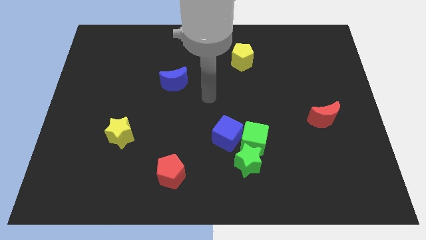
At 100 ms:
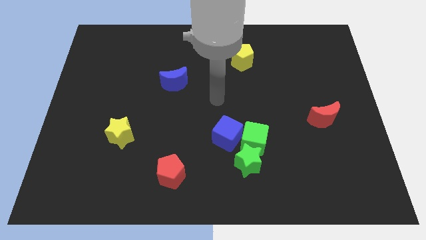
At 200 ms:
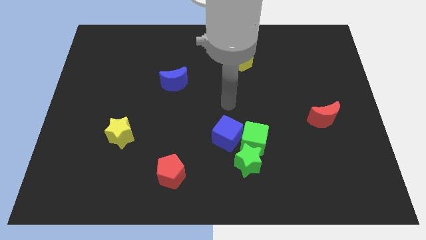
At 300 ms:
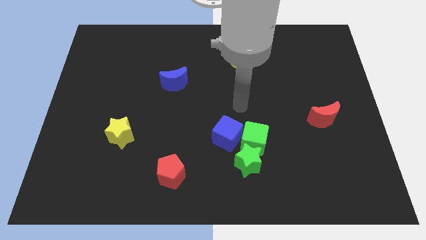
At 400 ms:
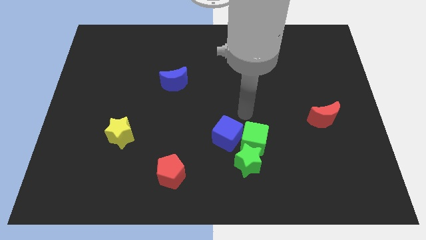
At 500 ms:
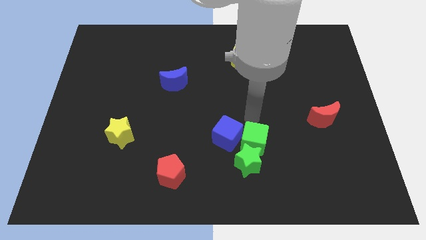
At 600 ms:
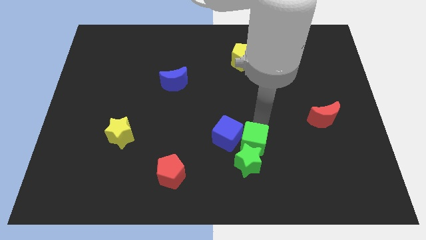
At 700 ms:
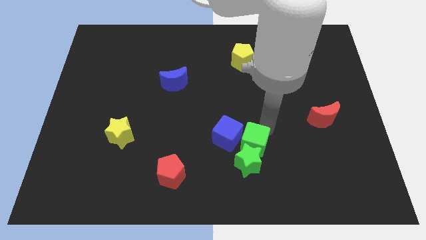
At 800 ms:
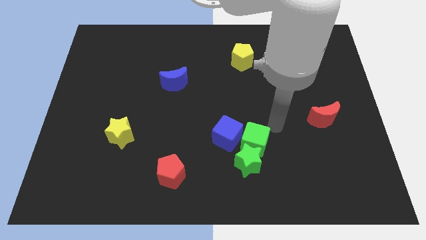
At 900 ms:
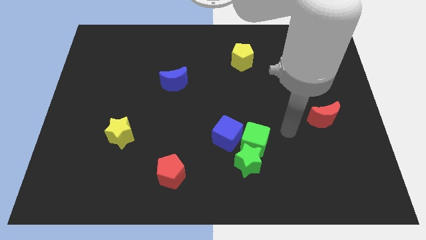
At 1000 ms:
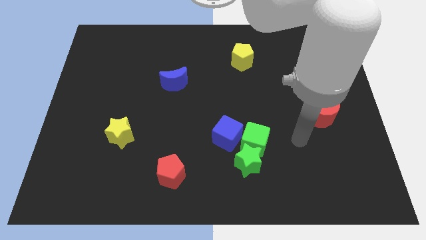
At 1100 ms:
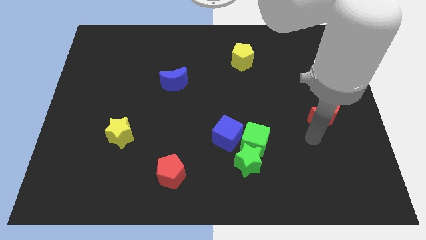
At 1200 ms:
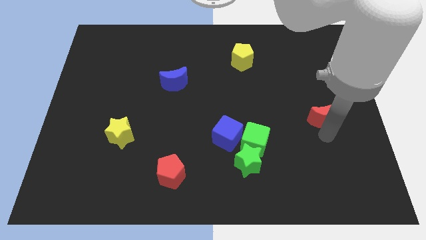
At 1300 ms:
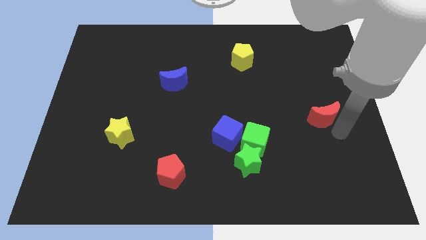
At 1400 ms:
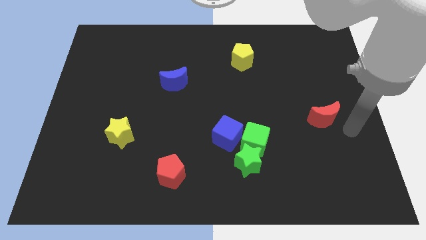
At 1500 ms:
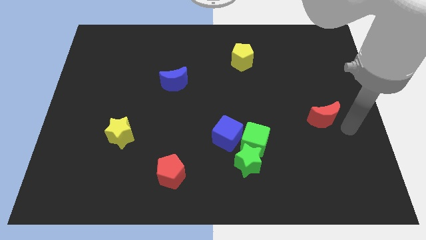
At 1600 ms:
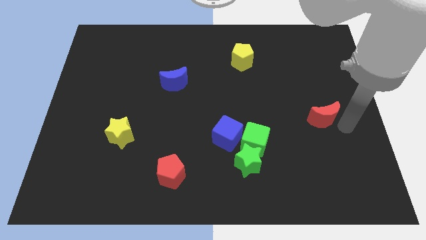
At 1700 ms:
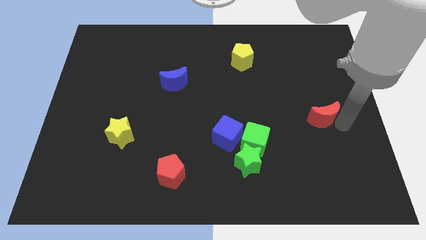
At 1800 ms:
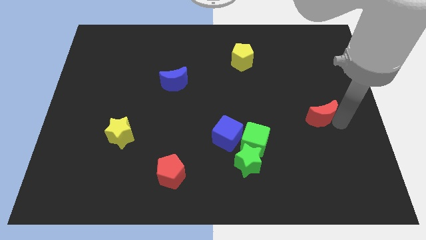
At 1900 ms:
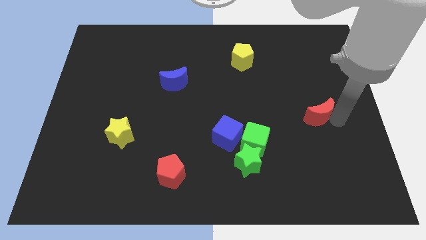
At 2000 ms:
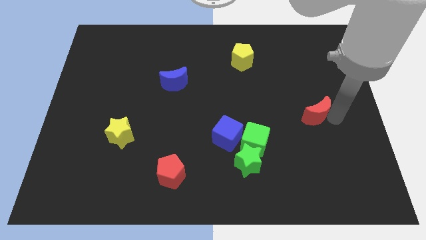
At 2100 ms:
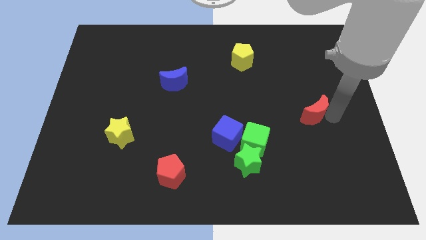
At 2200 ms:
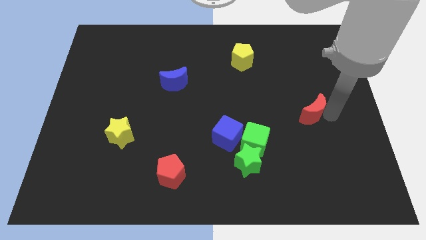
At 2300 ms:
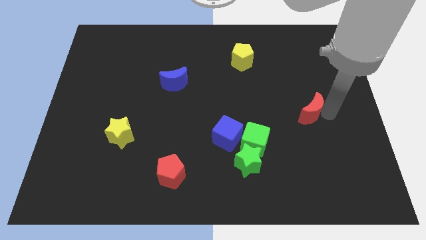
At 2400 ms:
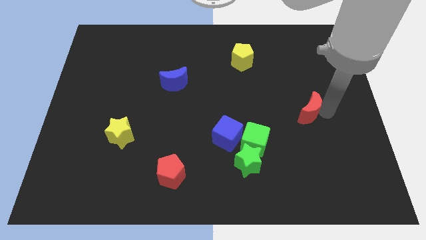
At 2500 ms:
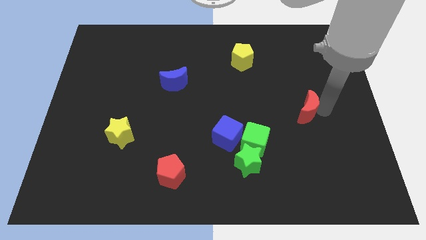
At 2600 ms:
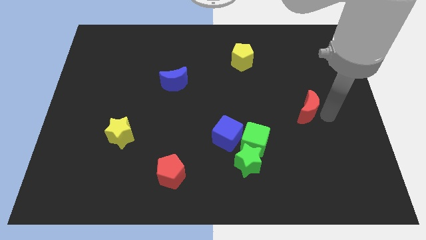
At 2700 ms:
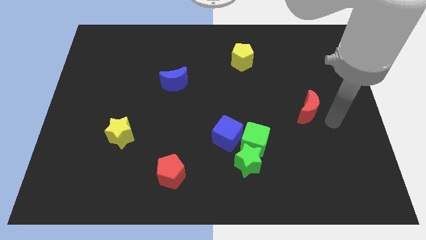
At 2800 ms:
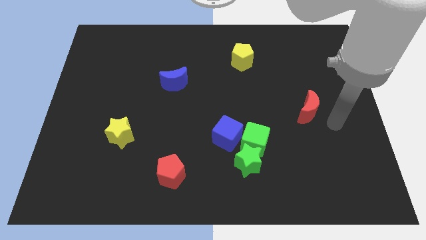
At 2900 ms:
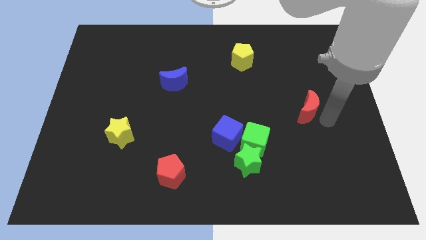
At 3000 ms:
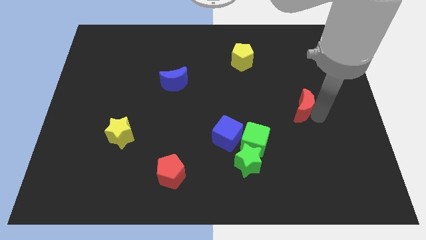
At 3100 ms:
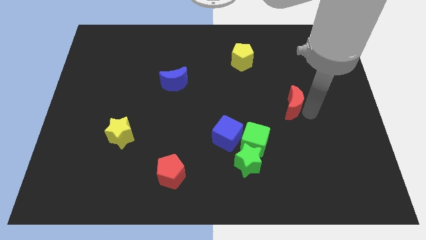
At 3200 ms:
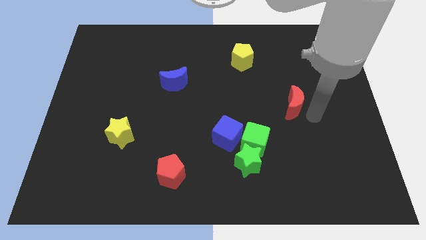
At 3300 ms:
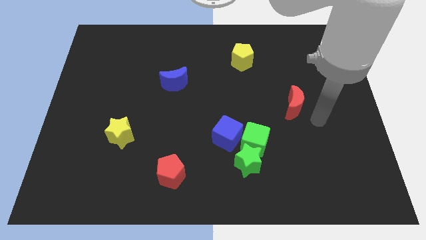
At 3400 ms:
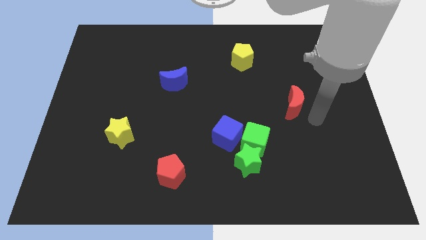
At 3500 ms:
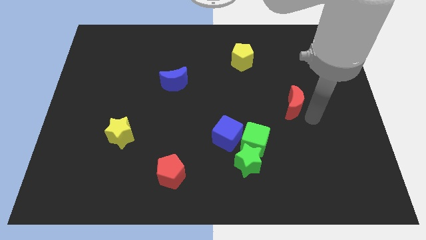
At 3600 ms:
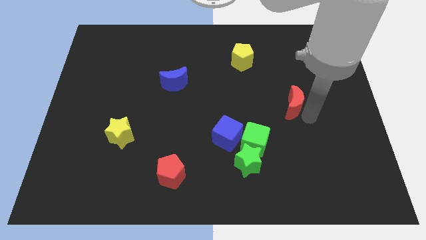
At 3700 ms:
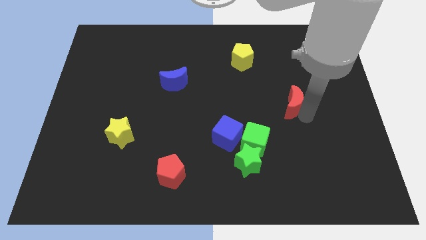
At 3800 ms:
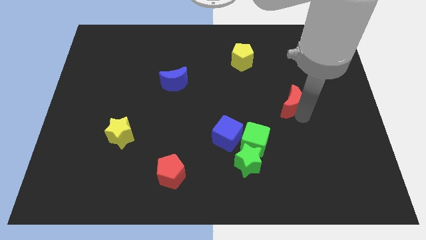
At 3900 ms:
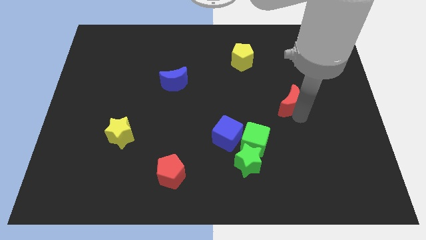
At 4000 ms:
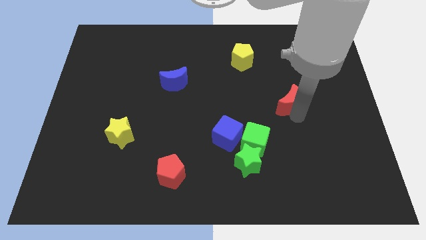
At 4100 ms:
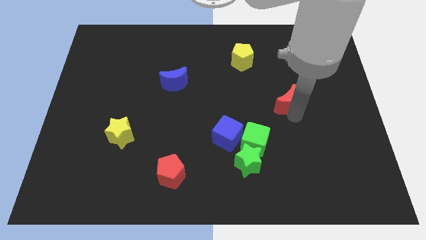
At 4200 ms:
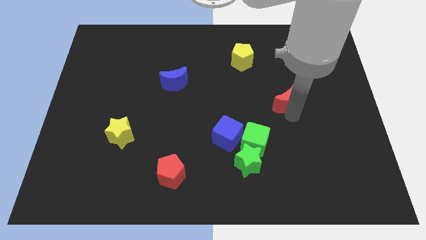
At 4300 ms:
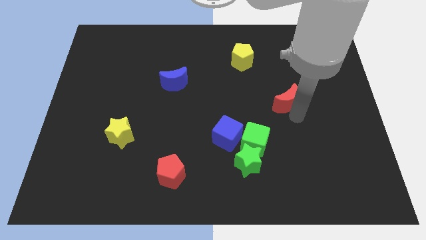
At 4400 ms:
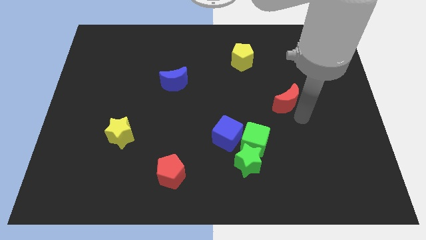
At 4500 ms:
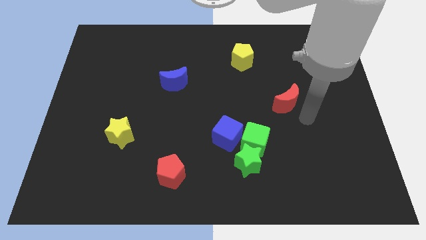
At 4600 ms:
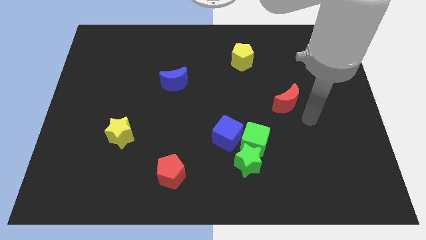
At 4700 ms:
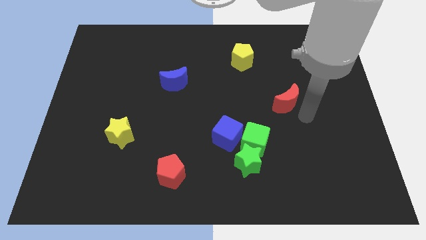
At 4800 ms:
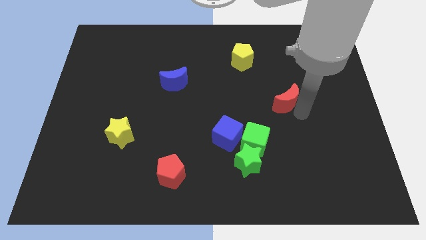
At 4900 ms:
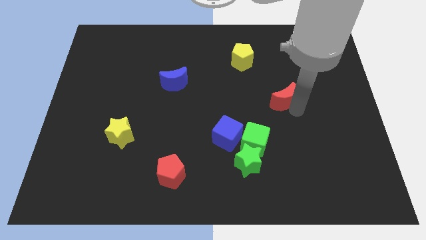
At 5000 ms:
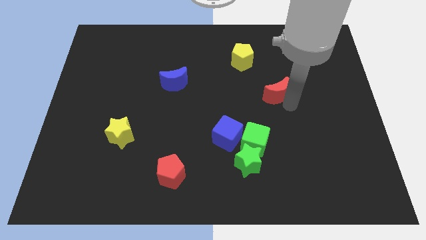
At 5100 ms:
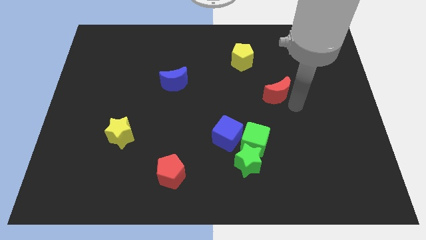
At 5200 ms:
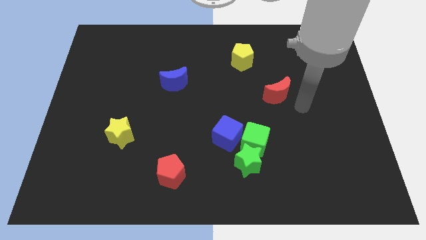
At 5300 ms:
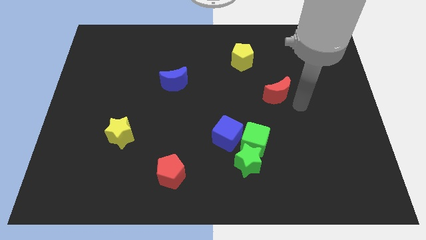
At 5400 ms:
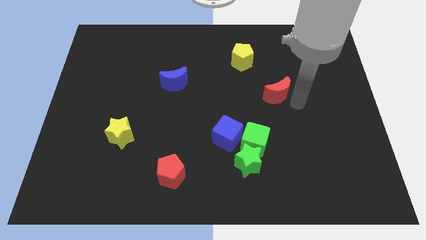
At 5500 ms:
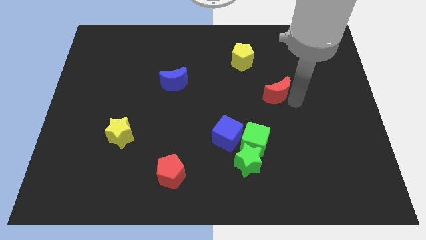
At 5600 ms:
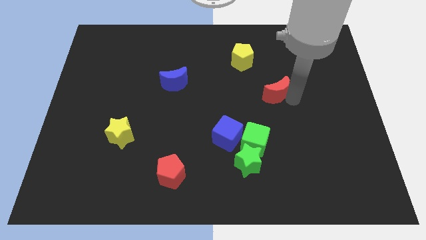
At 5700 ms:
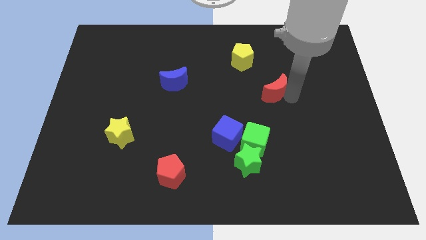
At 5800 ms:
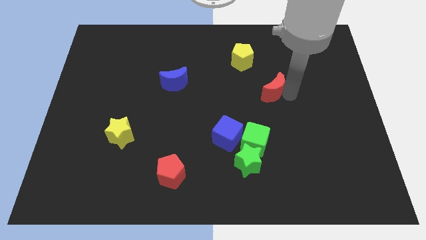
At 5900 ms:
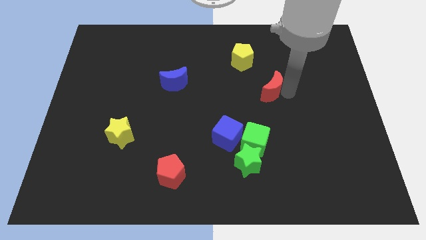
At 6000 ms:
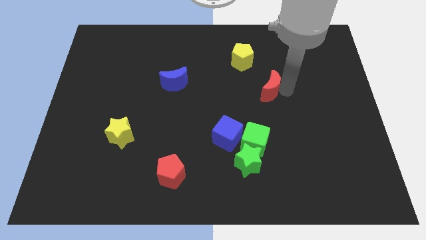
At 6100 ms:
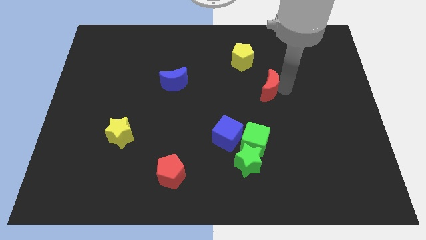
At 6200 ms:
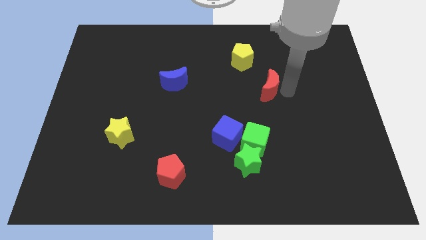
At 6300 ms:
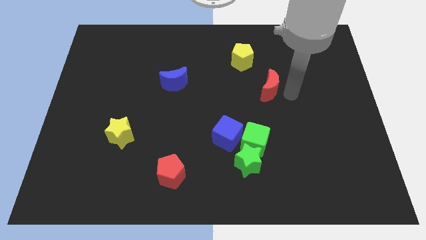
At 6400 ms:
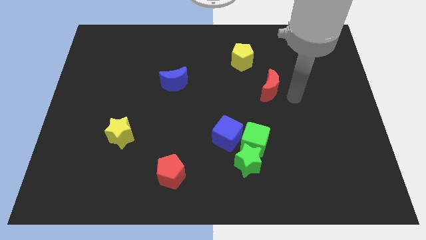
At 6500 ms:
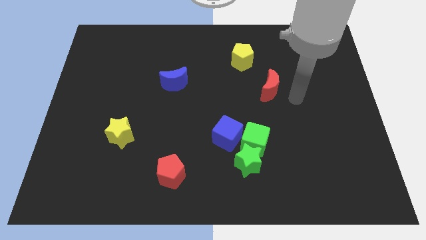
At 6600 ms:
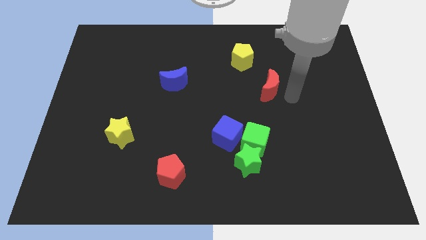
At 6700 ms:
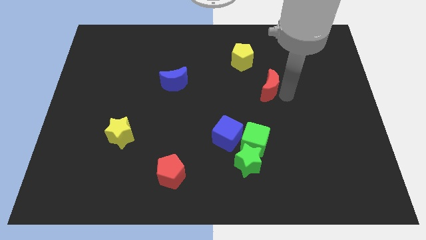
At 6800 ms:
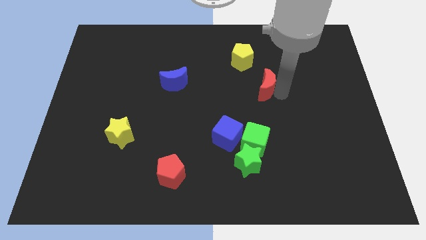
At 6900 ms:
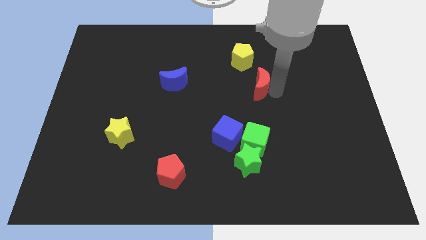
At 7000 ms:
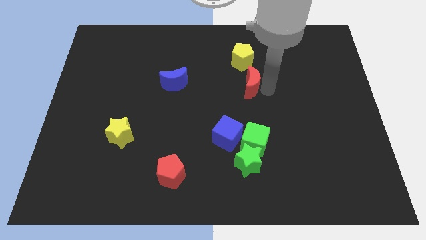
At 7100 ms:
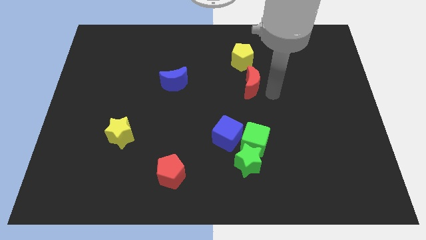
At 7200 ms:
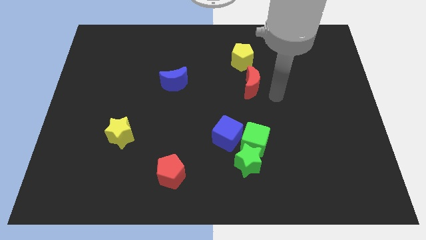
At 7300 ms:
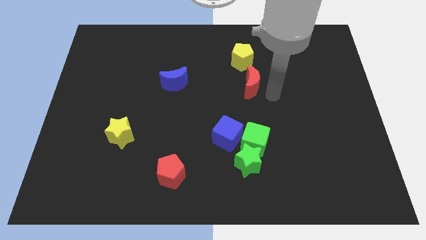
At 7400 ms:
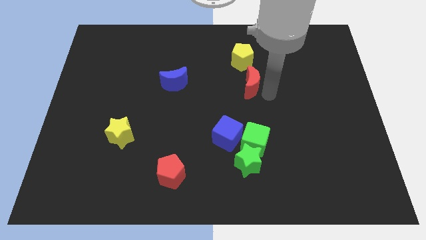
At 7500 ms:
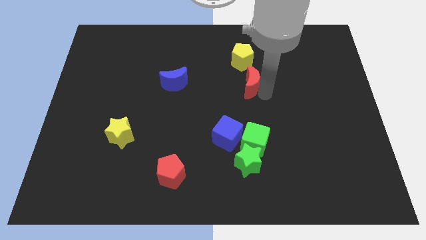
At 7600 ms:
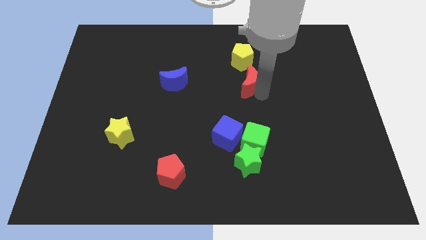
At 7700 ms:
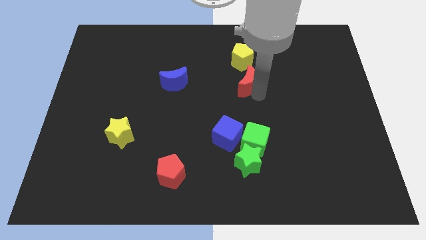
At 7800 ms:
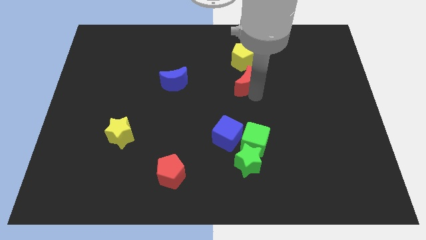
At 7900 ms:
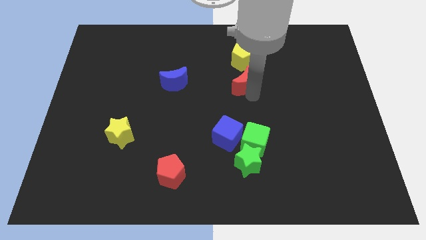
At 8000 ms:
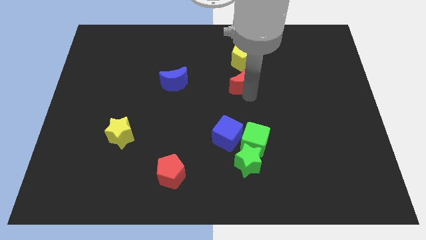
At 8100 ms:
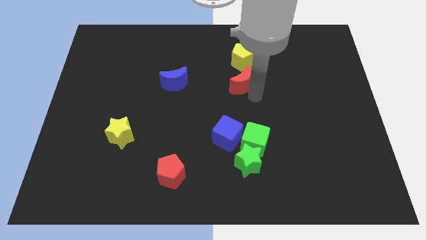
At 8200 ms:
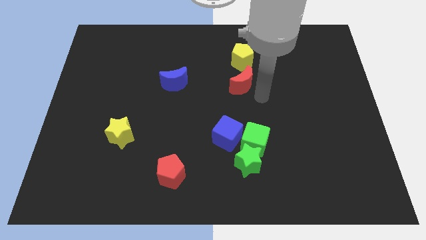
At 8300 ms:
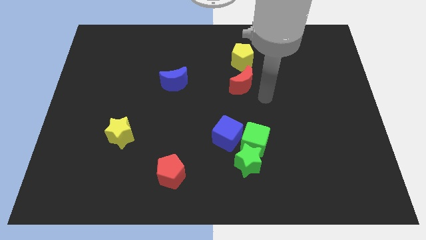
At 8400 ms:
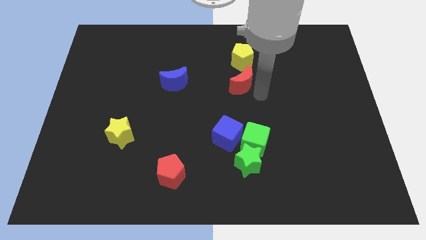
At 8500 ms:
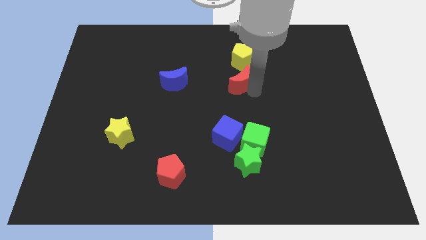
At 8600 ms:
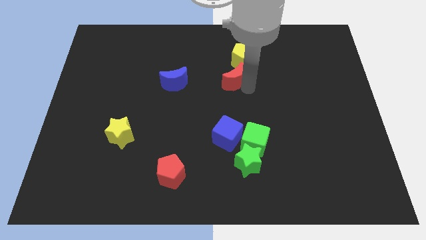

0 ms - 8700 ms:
push the red moon diagonally down and to the left of the yellow pentagon
